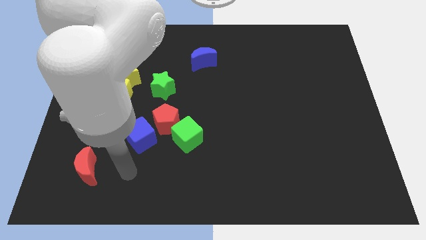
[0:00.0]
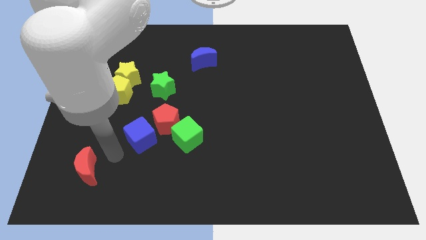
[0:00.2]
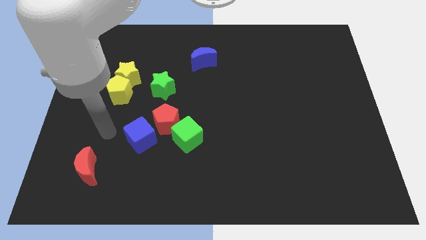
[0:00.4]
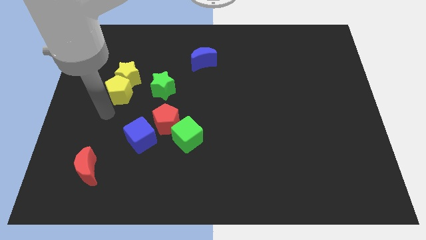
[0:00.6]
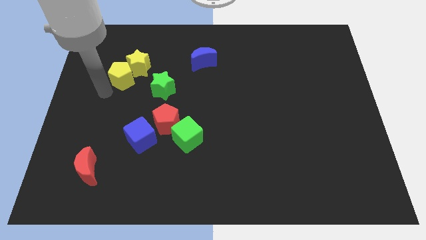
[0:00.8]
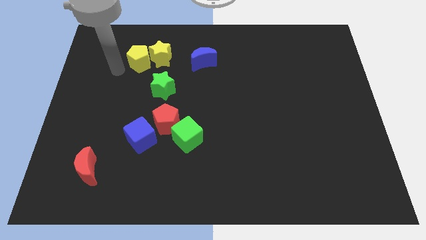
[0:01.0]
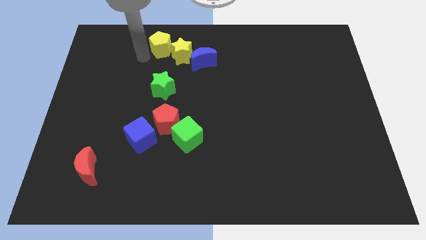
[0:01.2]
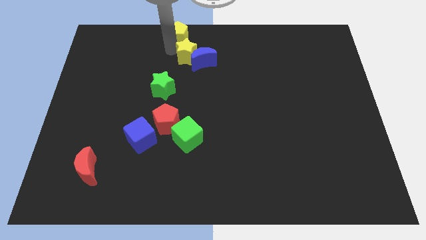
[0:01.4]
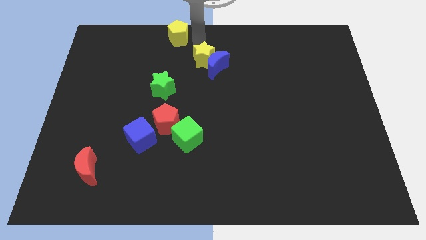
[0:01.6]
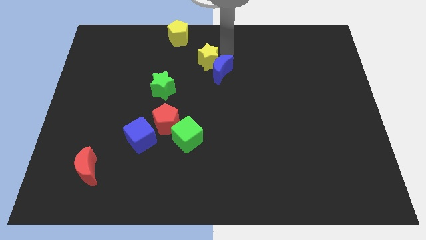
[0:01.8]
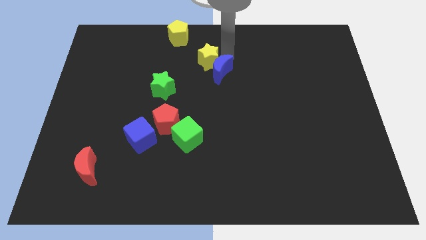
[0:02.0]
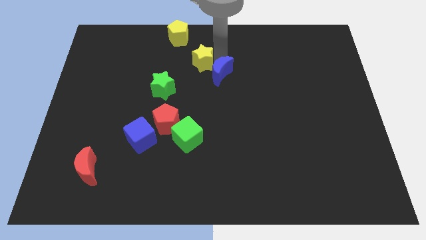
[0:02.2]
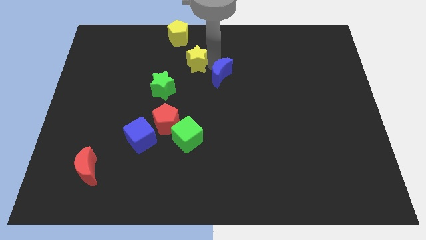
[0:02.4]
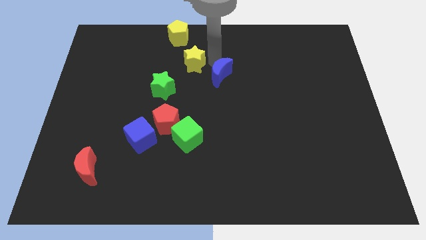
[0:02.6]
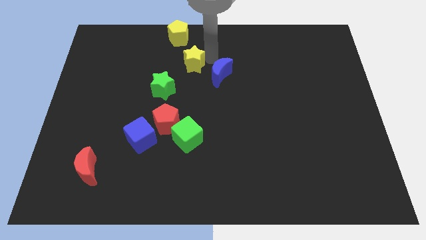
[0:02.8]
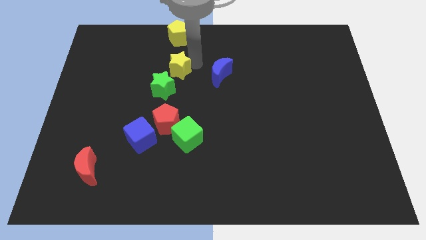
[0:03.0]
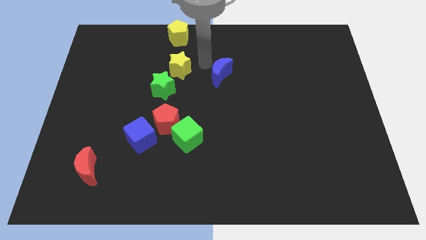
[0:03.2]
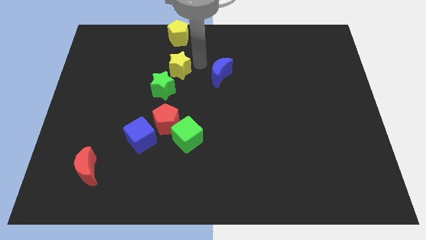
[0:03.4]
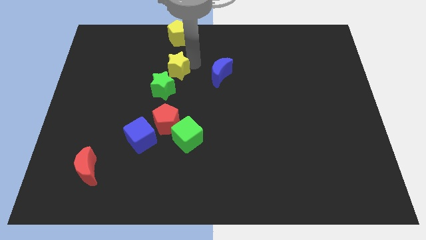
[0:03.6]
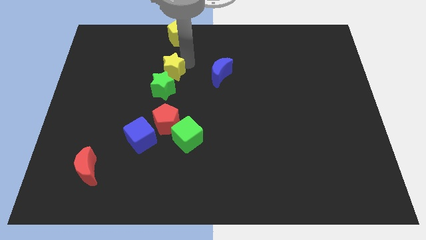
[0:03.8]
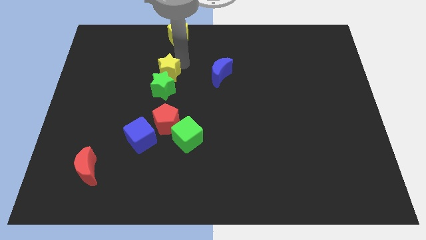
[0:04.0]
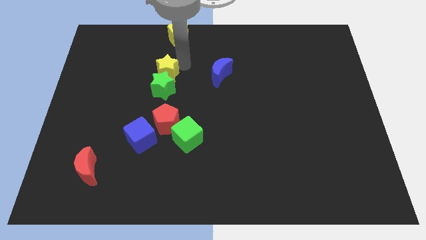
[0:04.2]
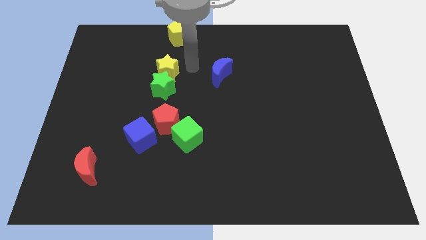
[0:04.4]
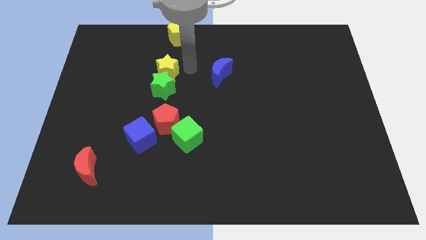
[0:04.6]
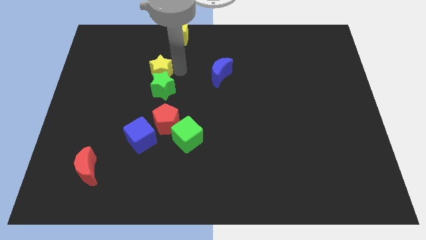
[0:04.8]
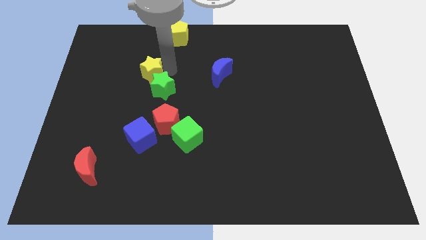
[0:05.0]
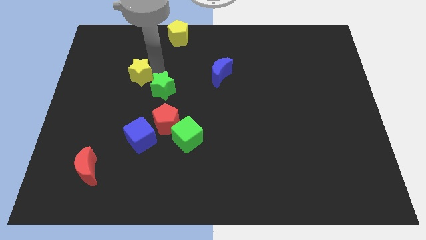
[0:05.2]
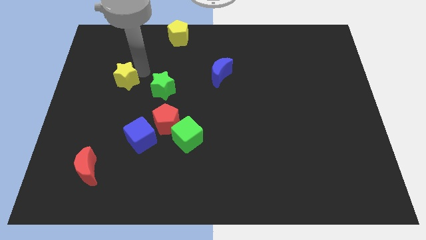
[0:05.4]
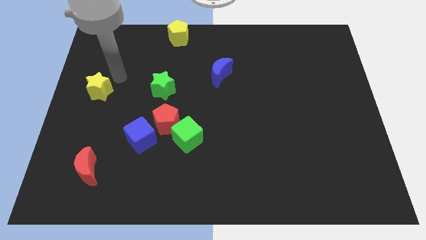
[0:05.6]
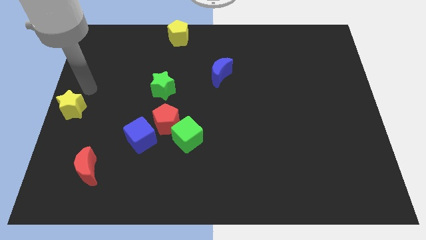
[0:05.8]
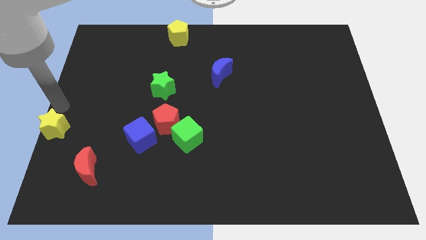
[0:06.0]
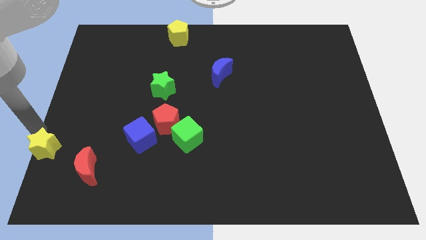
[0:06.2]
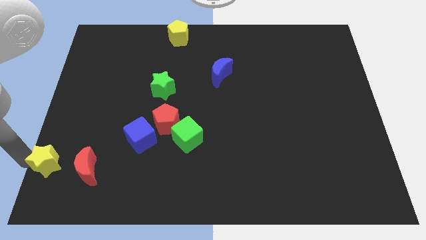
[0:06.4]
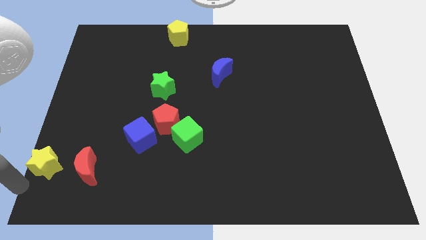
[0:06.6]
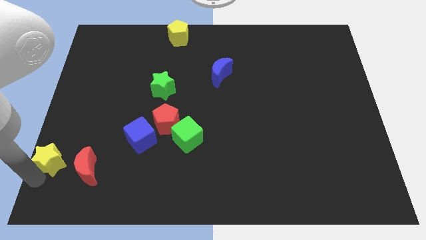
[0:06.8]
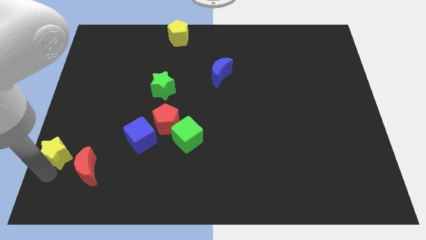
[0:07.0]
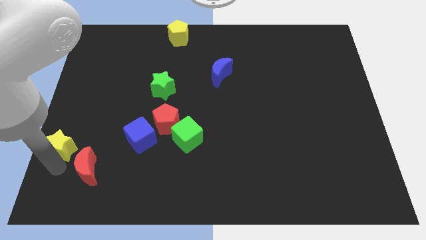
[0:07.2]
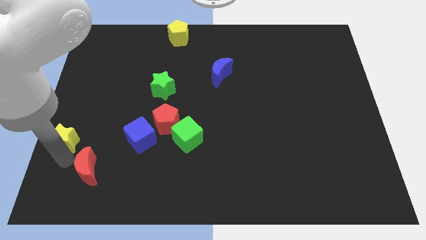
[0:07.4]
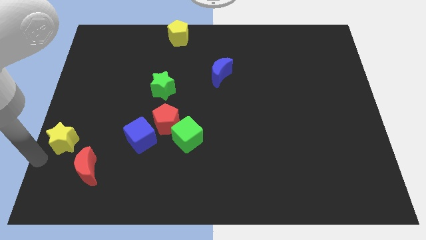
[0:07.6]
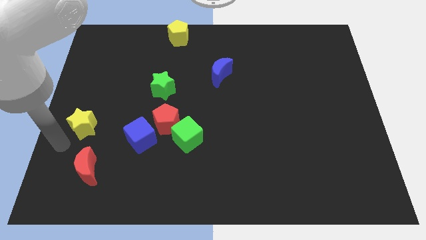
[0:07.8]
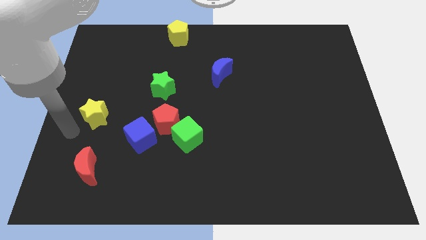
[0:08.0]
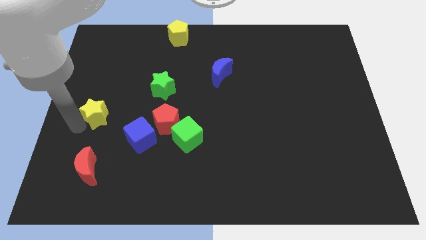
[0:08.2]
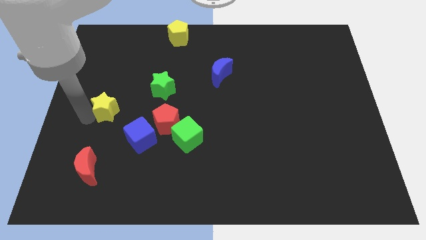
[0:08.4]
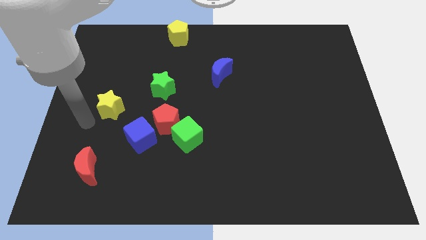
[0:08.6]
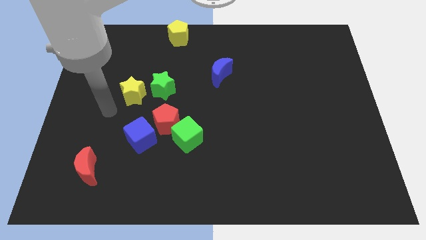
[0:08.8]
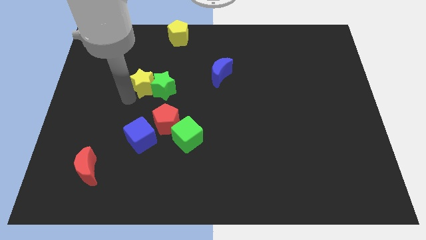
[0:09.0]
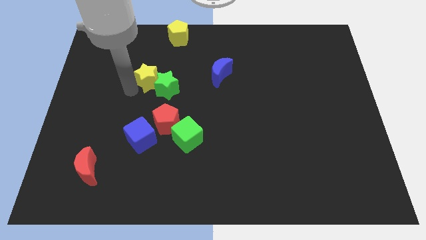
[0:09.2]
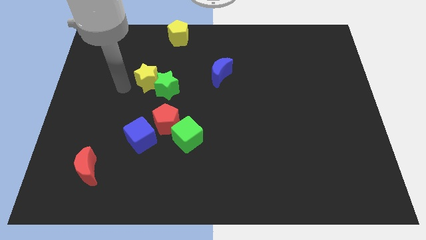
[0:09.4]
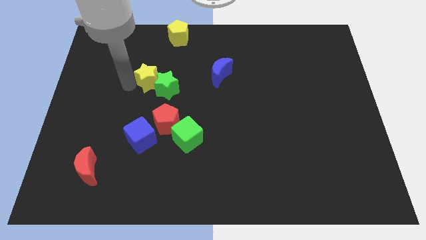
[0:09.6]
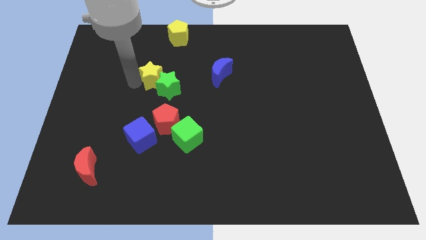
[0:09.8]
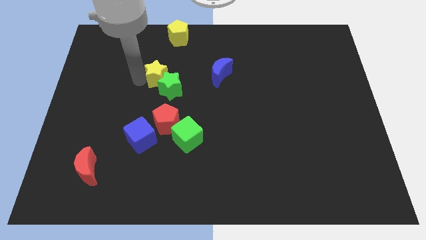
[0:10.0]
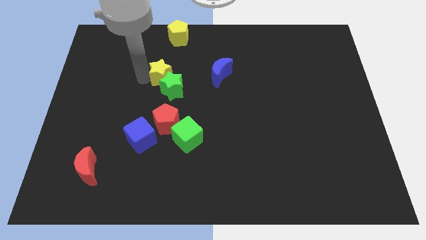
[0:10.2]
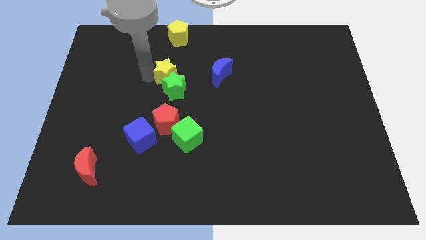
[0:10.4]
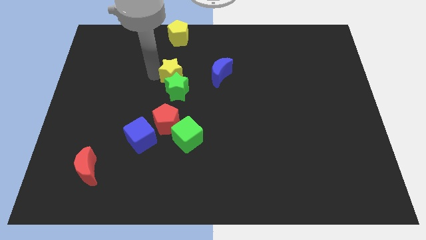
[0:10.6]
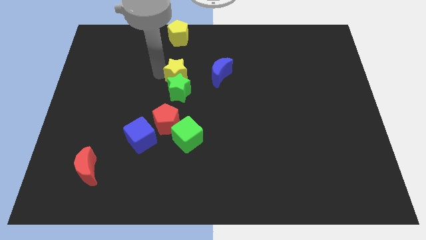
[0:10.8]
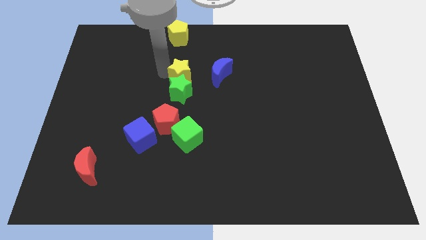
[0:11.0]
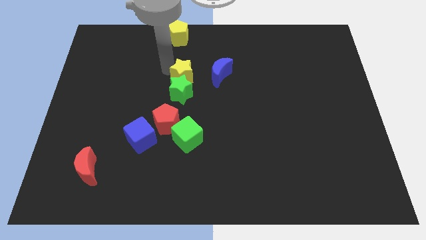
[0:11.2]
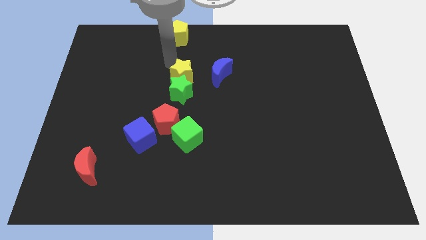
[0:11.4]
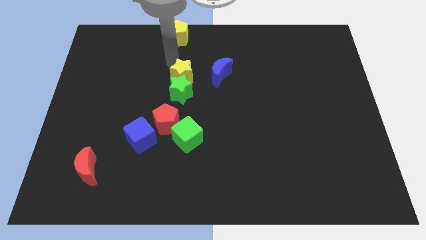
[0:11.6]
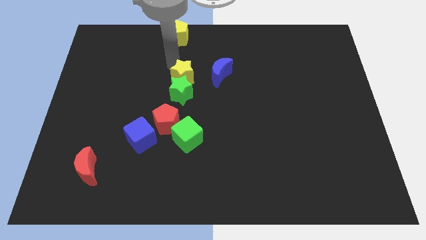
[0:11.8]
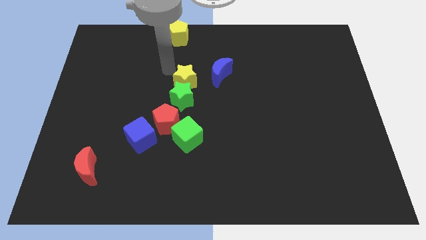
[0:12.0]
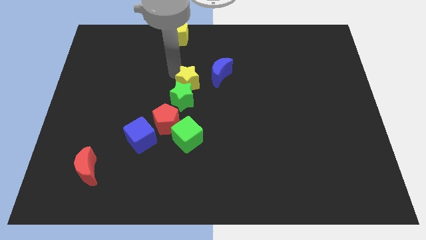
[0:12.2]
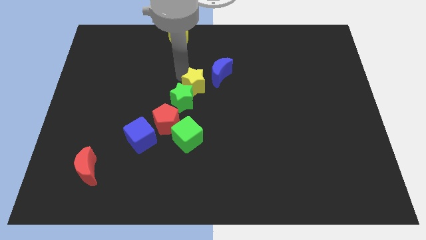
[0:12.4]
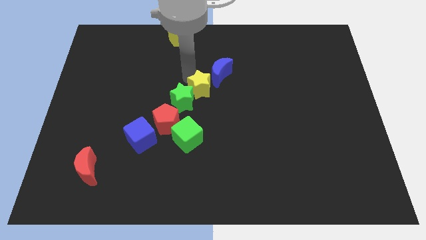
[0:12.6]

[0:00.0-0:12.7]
slide the yellow star below the blue moon

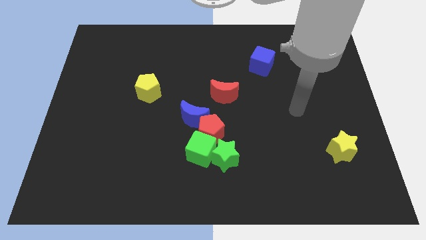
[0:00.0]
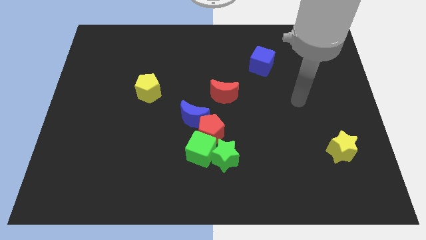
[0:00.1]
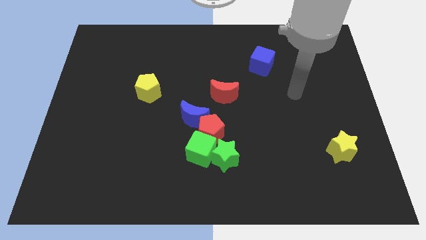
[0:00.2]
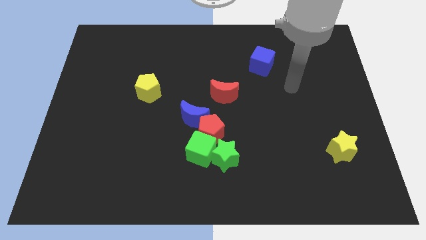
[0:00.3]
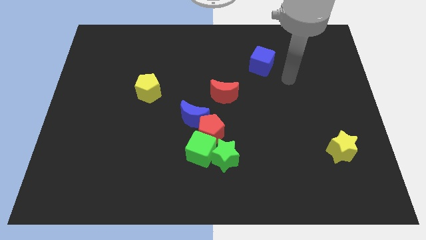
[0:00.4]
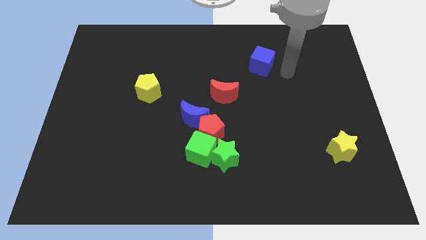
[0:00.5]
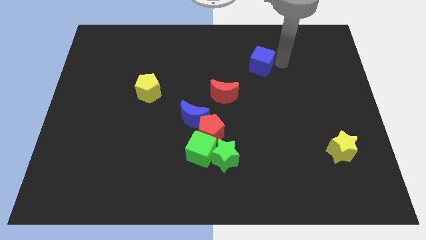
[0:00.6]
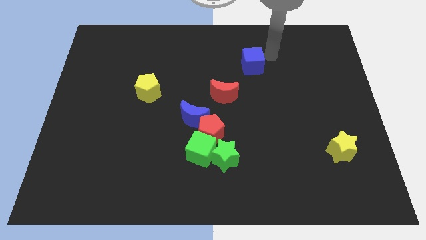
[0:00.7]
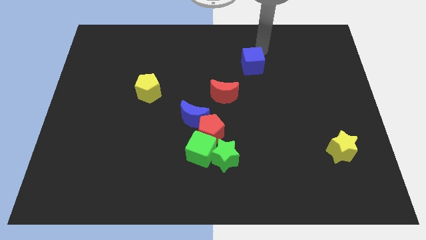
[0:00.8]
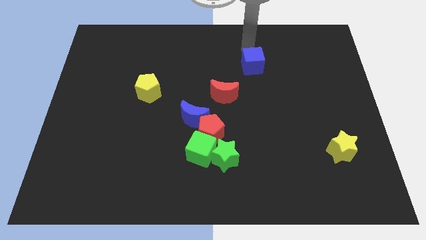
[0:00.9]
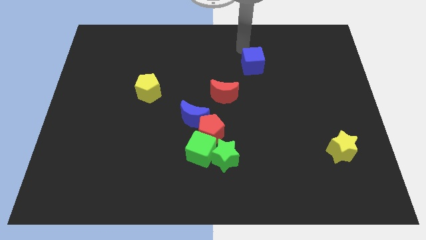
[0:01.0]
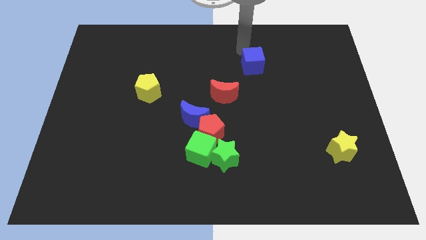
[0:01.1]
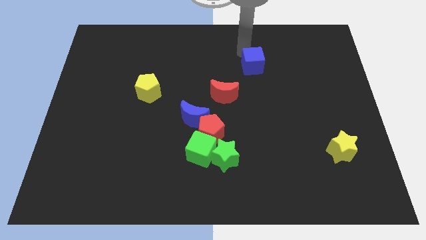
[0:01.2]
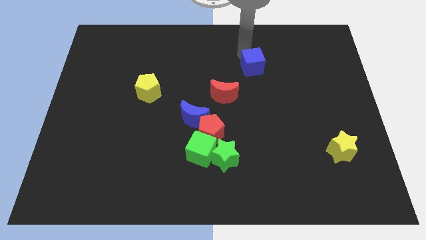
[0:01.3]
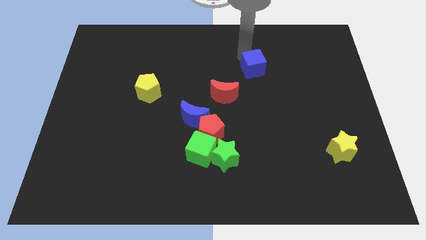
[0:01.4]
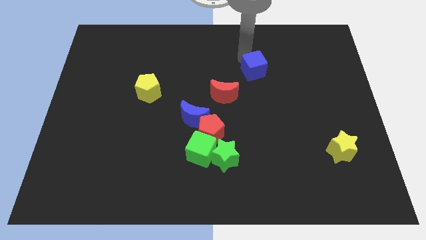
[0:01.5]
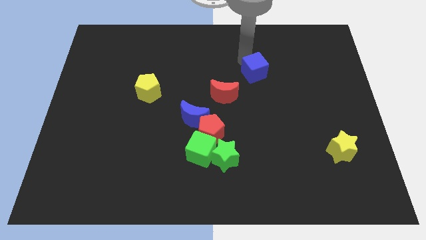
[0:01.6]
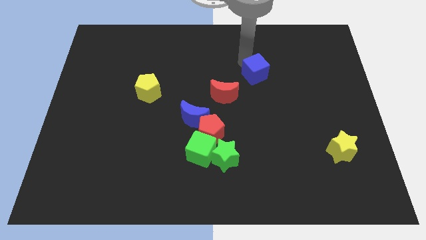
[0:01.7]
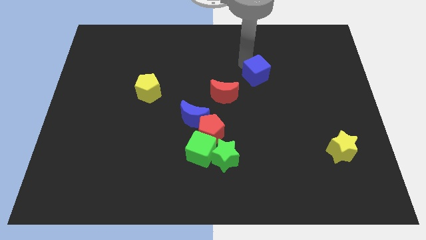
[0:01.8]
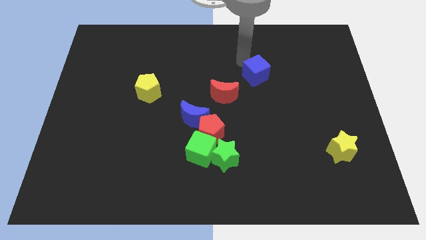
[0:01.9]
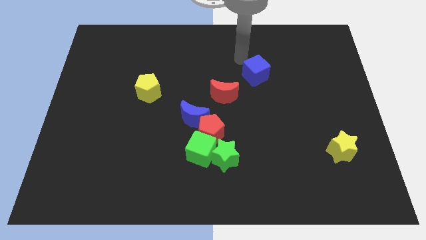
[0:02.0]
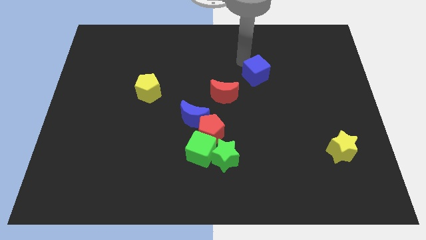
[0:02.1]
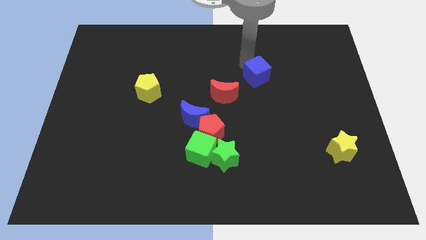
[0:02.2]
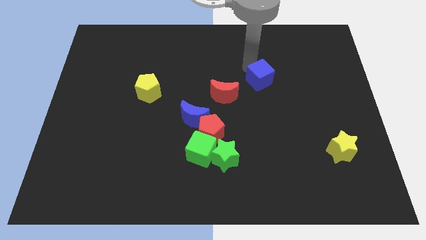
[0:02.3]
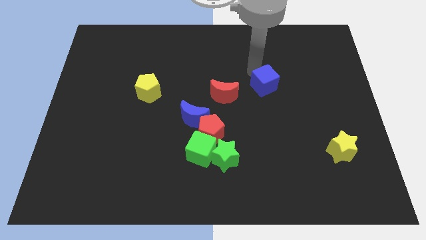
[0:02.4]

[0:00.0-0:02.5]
push the blue cube just right of the red moon
